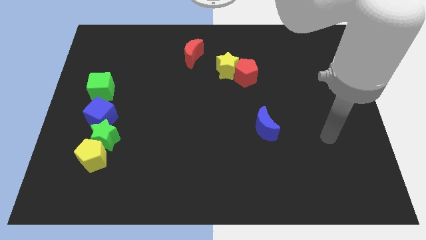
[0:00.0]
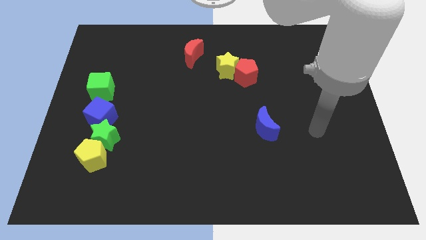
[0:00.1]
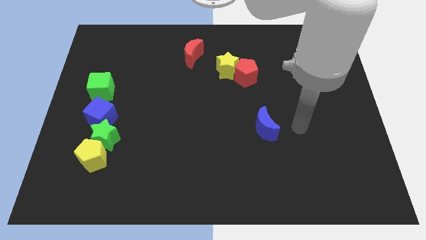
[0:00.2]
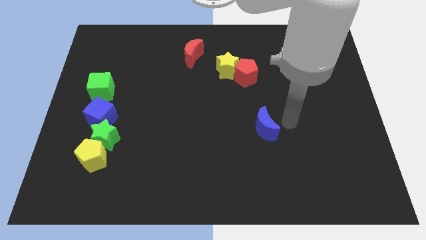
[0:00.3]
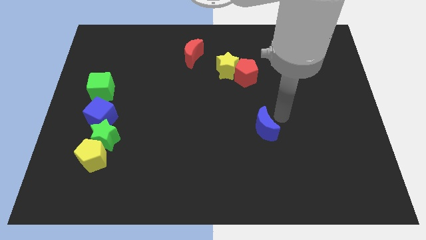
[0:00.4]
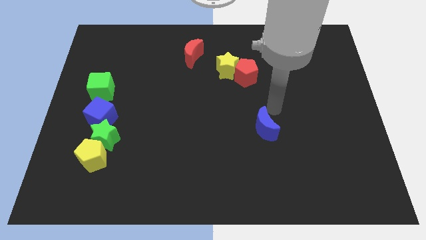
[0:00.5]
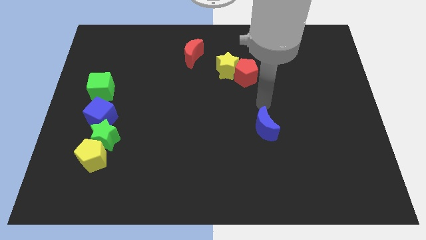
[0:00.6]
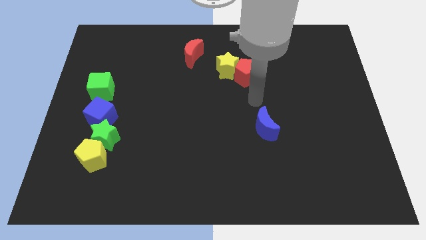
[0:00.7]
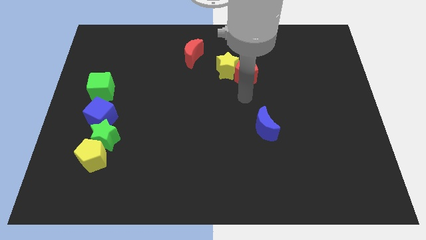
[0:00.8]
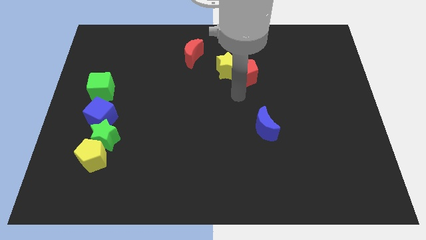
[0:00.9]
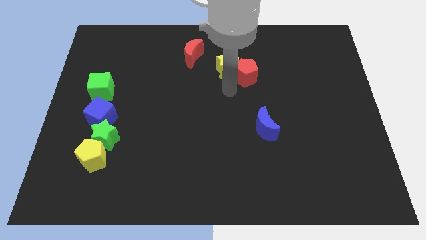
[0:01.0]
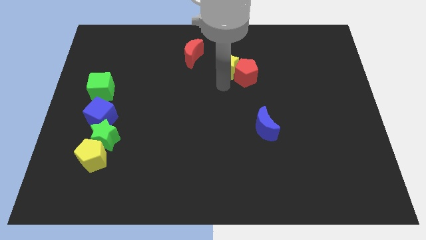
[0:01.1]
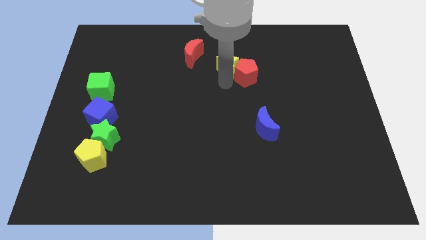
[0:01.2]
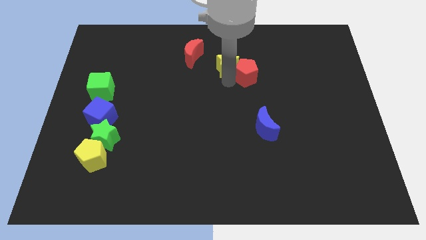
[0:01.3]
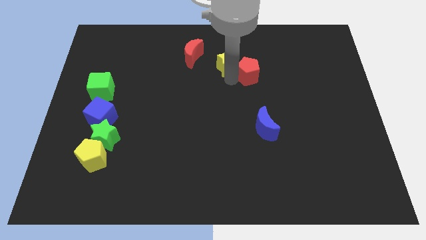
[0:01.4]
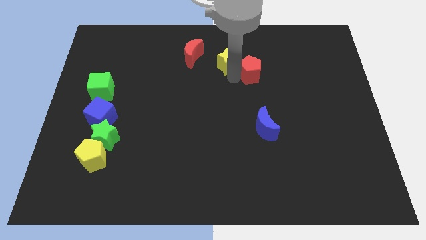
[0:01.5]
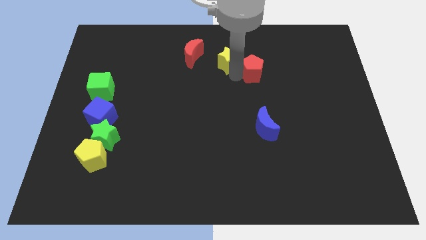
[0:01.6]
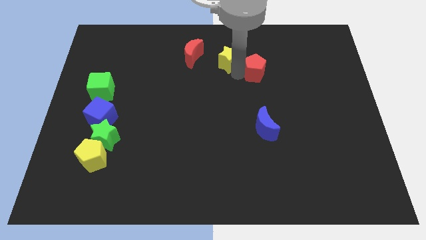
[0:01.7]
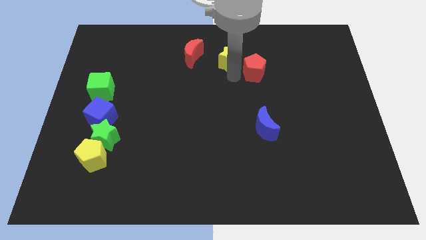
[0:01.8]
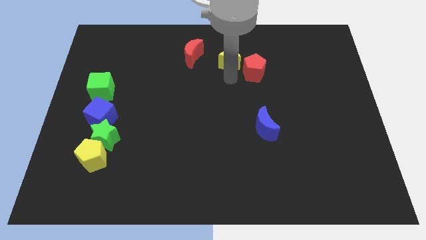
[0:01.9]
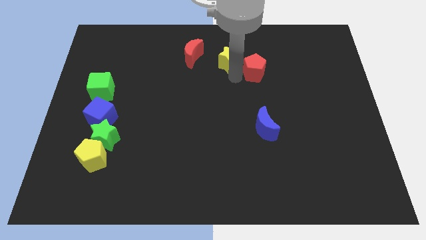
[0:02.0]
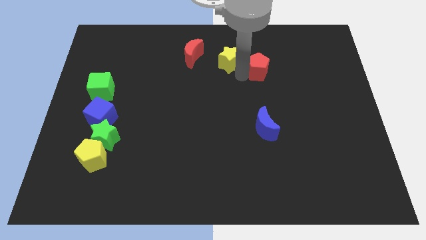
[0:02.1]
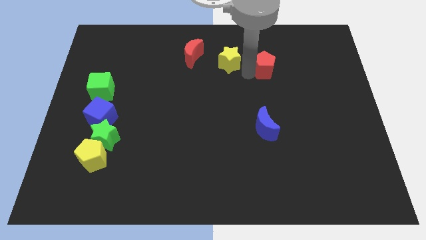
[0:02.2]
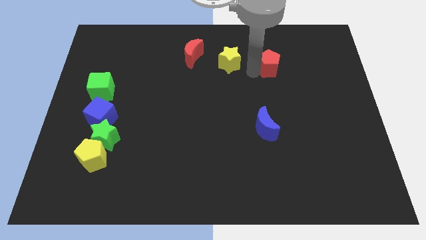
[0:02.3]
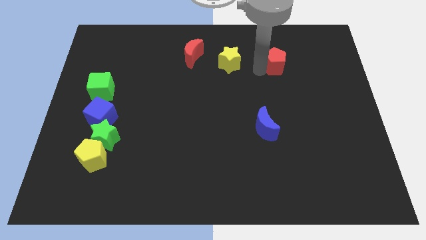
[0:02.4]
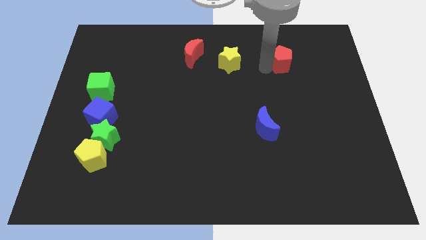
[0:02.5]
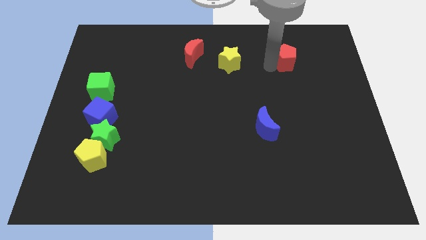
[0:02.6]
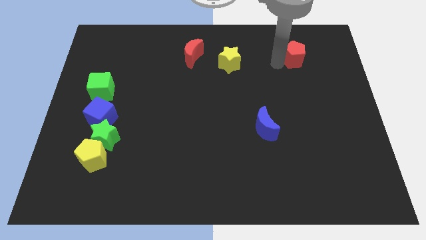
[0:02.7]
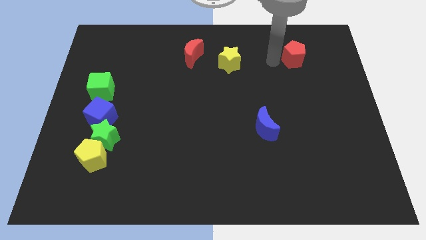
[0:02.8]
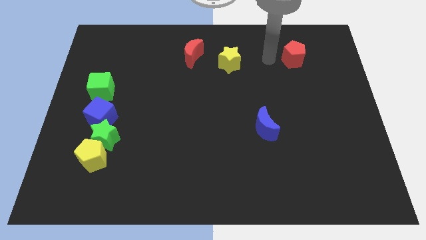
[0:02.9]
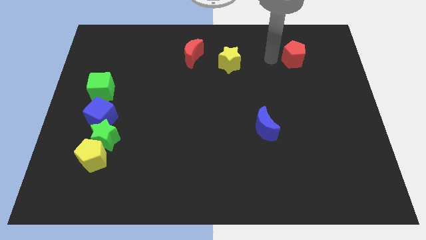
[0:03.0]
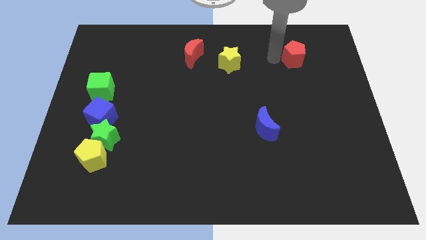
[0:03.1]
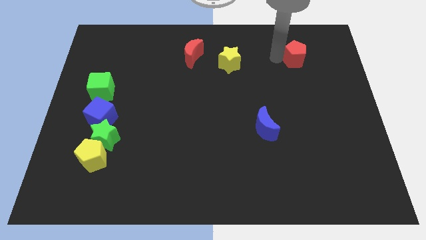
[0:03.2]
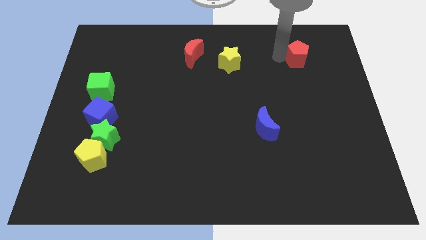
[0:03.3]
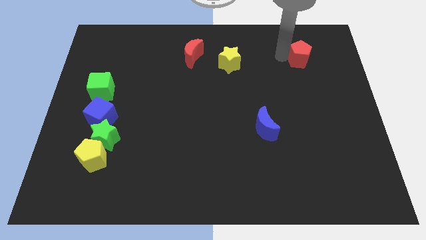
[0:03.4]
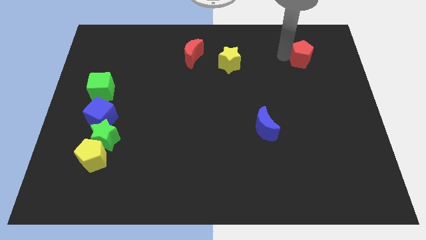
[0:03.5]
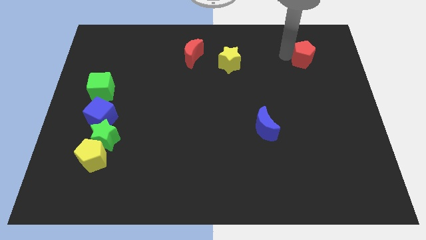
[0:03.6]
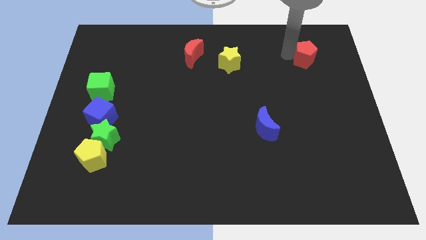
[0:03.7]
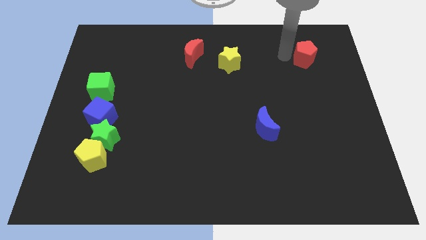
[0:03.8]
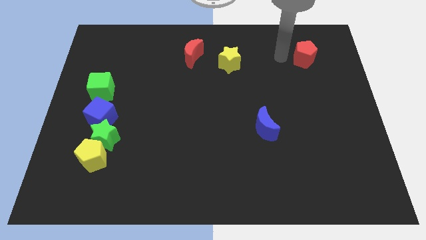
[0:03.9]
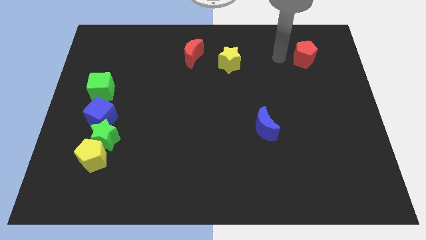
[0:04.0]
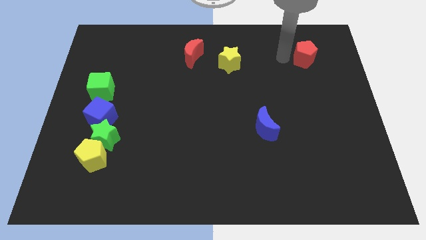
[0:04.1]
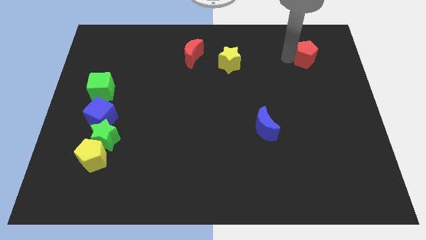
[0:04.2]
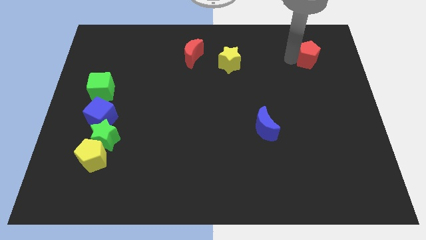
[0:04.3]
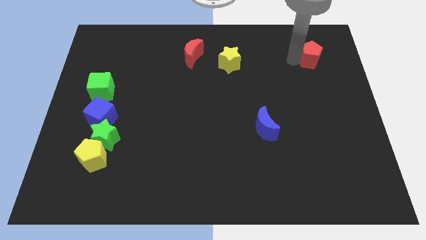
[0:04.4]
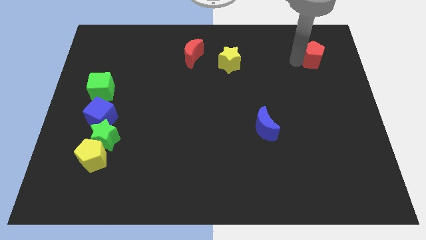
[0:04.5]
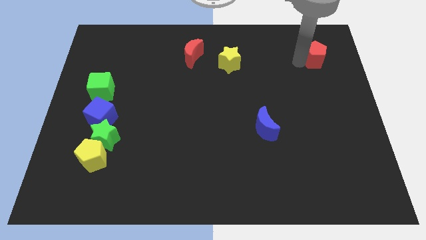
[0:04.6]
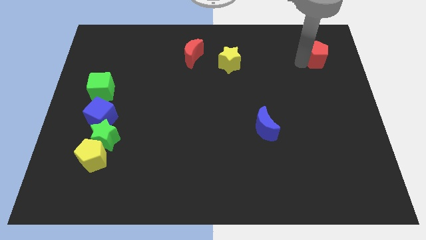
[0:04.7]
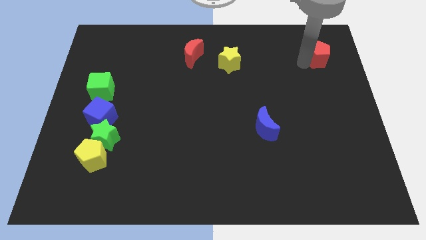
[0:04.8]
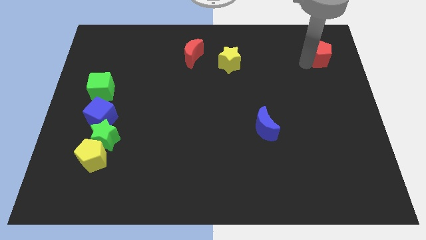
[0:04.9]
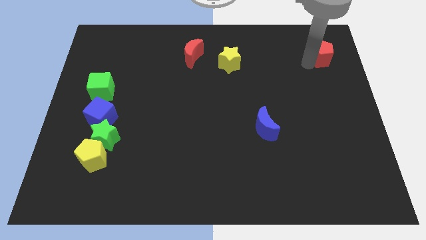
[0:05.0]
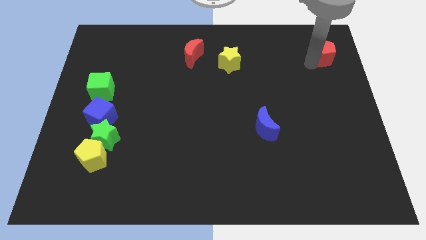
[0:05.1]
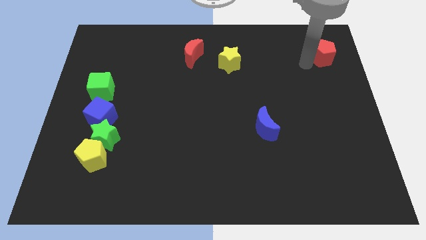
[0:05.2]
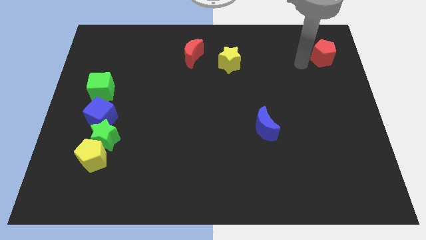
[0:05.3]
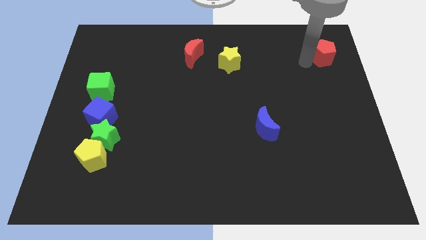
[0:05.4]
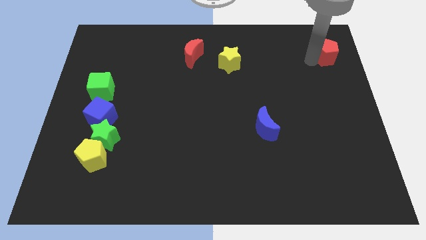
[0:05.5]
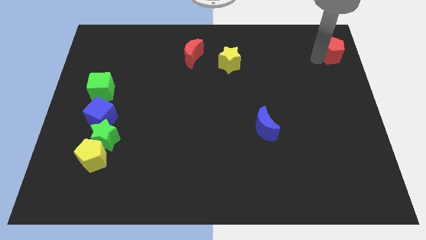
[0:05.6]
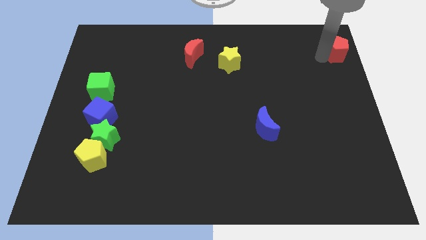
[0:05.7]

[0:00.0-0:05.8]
move the red pentagon to the upper right corner

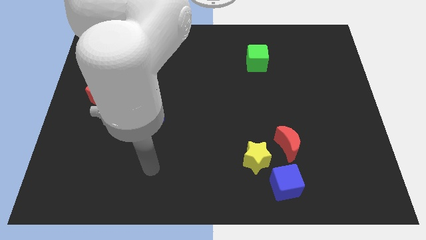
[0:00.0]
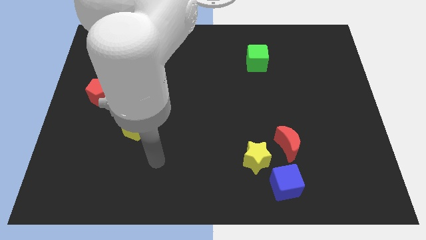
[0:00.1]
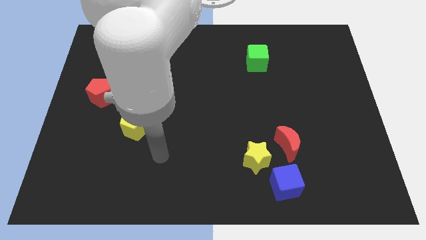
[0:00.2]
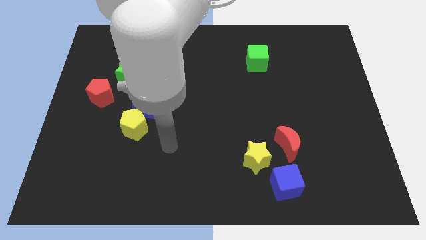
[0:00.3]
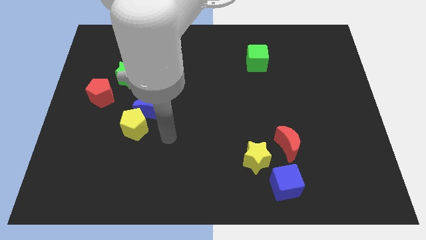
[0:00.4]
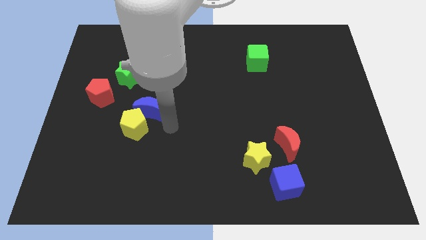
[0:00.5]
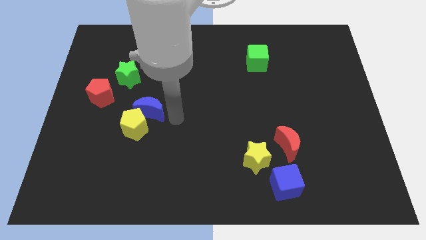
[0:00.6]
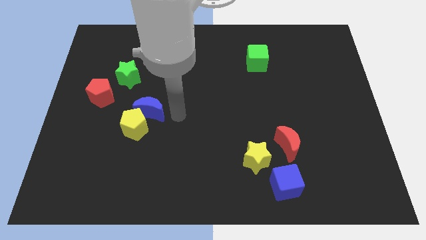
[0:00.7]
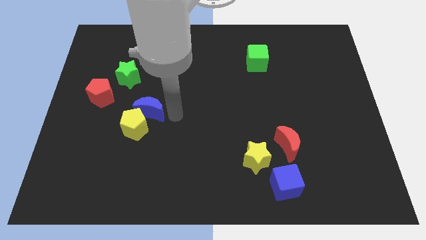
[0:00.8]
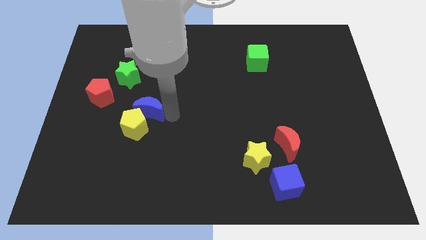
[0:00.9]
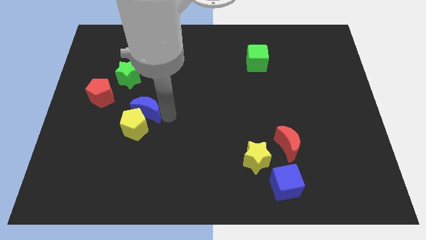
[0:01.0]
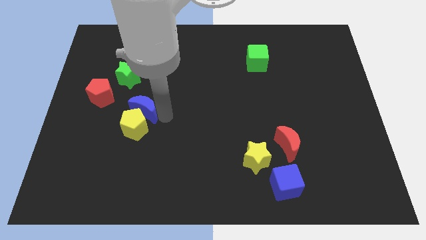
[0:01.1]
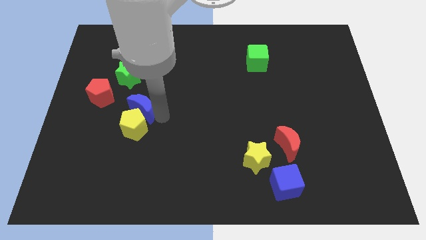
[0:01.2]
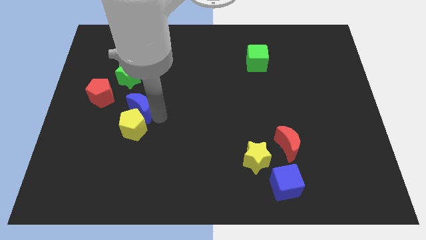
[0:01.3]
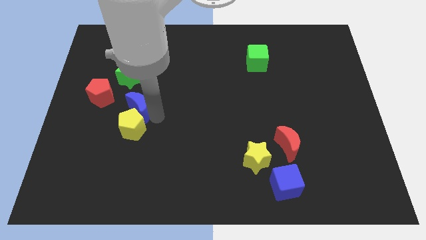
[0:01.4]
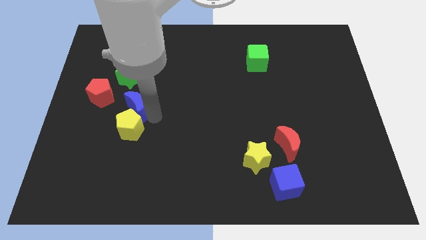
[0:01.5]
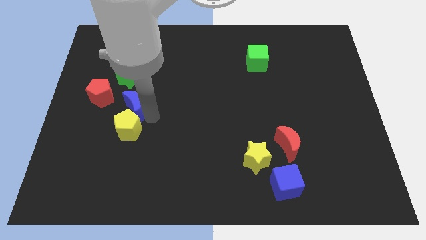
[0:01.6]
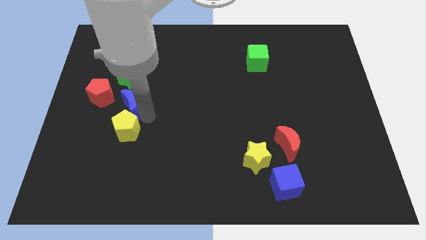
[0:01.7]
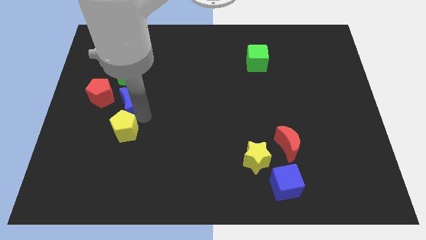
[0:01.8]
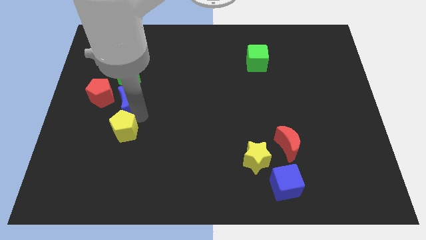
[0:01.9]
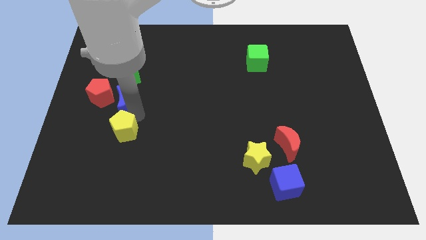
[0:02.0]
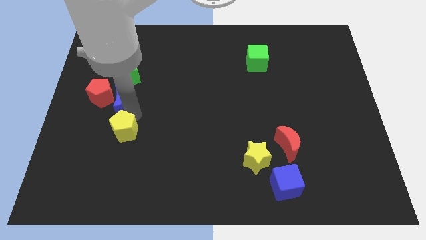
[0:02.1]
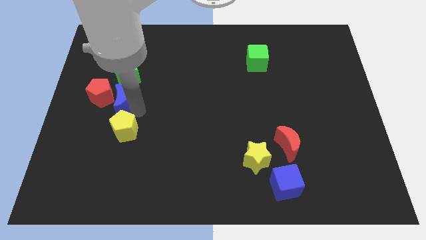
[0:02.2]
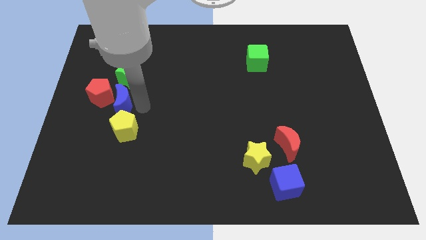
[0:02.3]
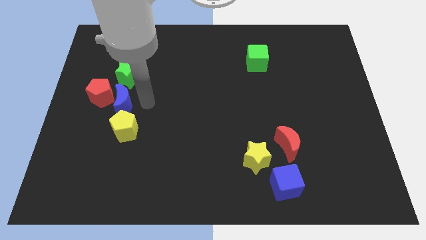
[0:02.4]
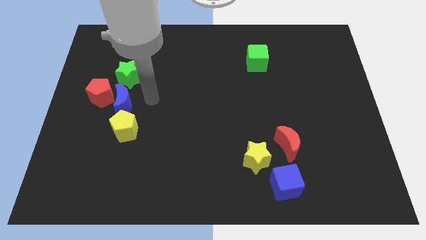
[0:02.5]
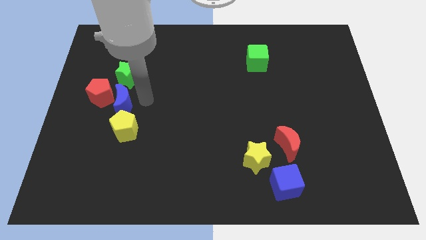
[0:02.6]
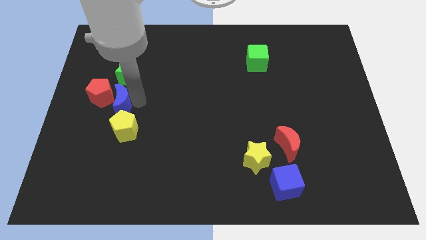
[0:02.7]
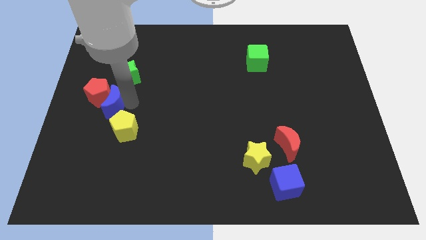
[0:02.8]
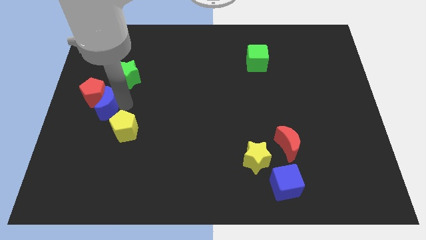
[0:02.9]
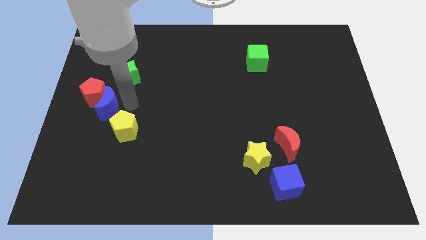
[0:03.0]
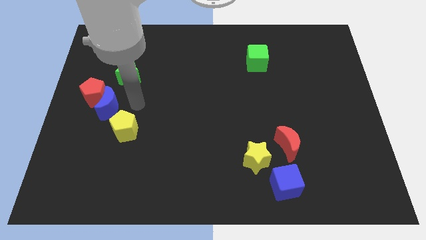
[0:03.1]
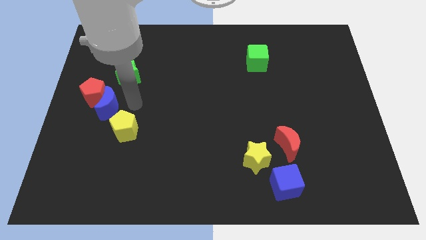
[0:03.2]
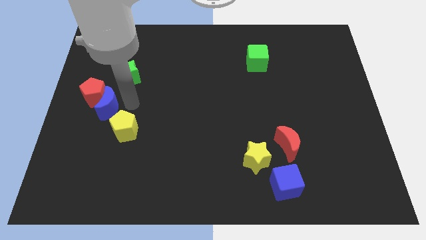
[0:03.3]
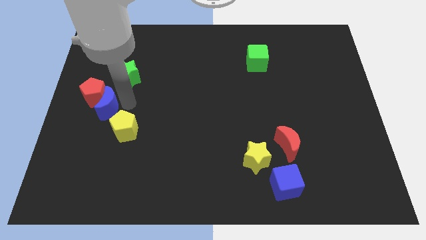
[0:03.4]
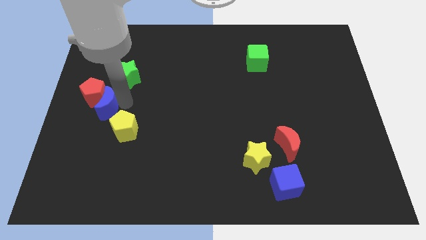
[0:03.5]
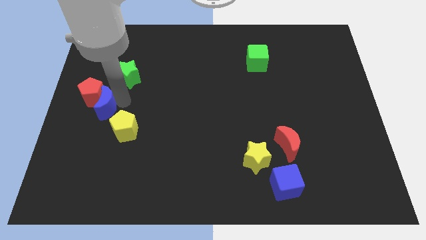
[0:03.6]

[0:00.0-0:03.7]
slide the blue moon to the center left
